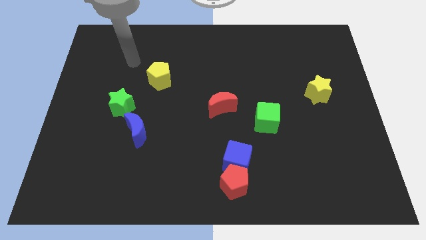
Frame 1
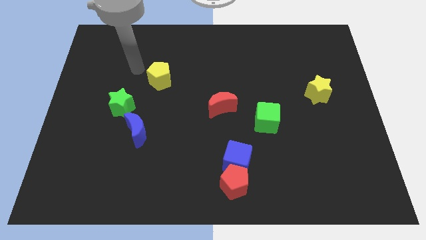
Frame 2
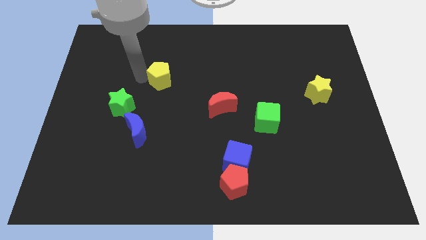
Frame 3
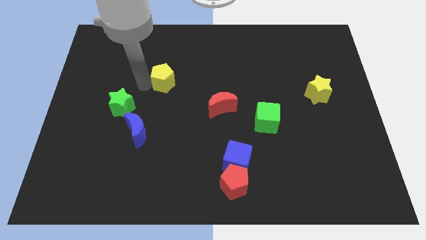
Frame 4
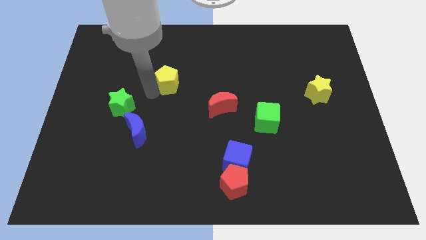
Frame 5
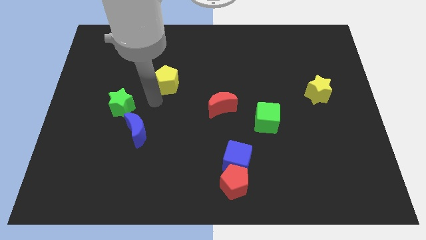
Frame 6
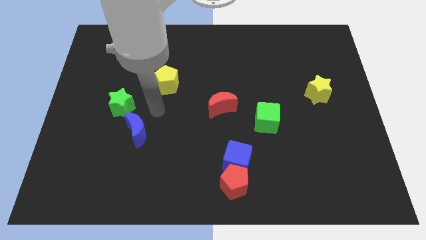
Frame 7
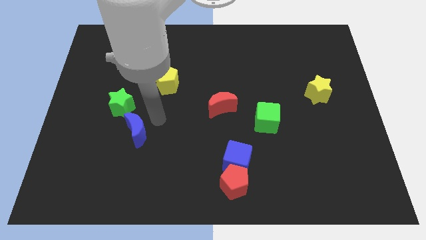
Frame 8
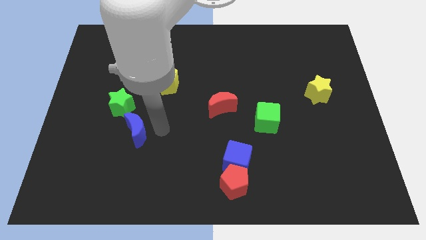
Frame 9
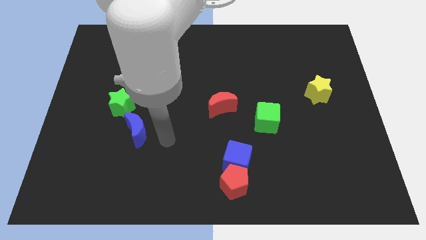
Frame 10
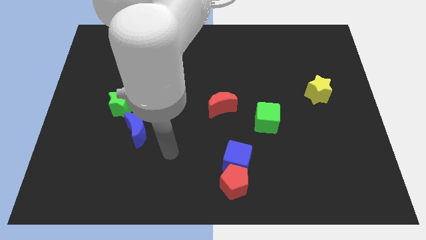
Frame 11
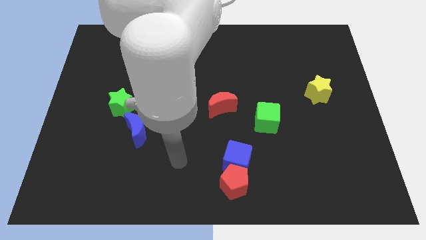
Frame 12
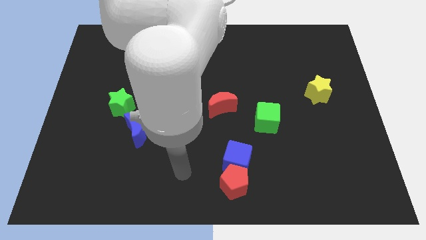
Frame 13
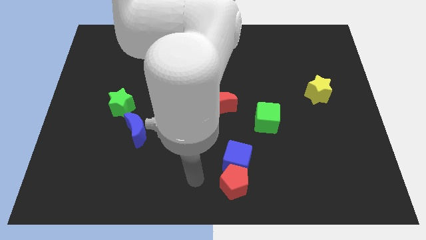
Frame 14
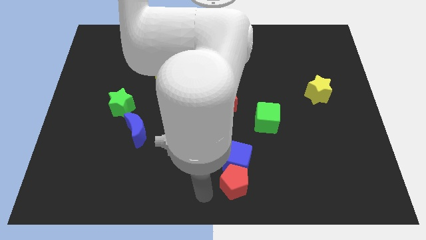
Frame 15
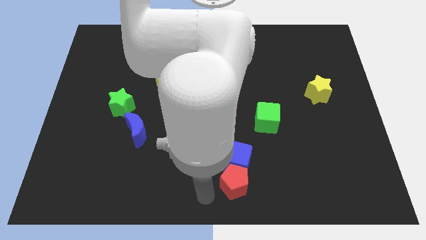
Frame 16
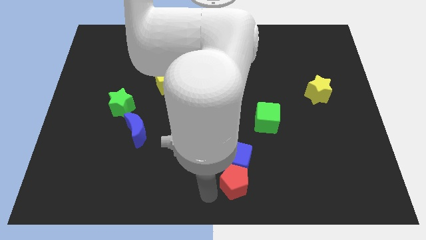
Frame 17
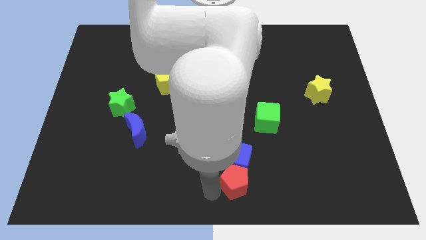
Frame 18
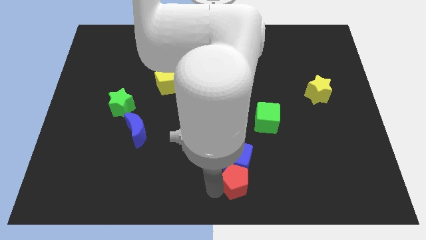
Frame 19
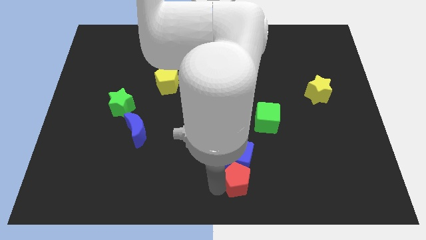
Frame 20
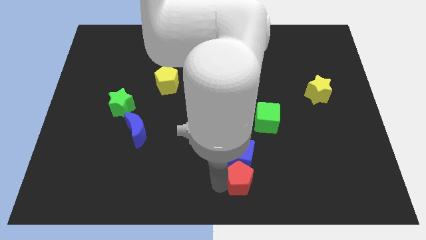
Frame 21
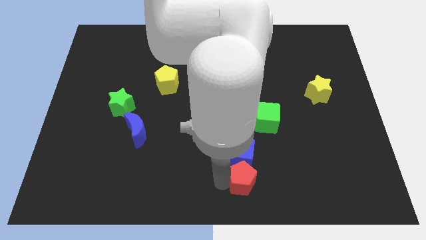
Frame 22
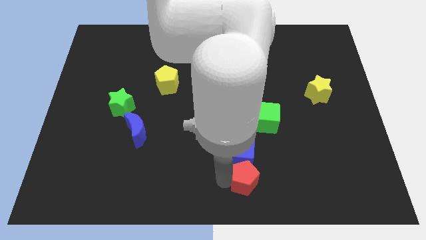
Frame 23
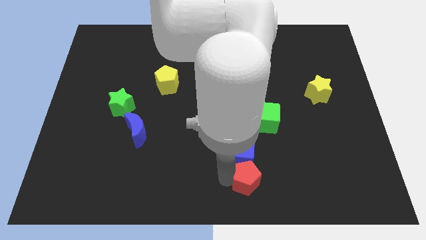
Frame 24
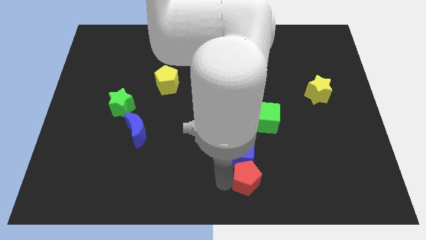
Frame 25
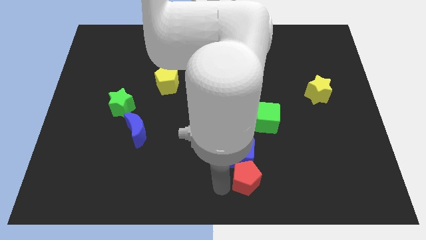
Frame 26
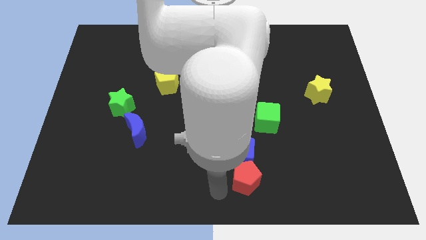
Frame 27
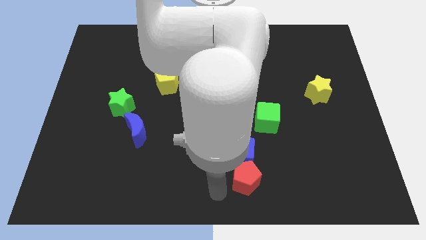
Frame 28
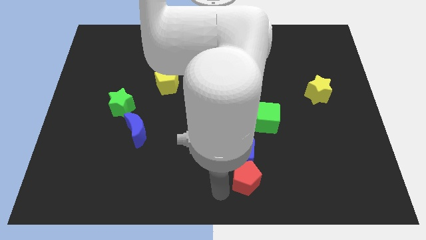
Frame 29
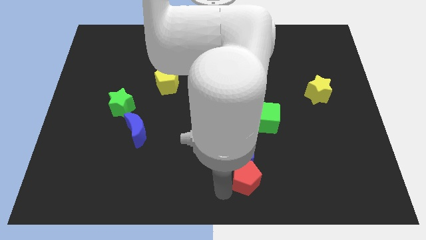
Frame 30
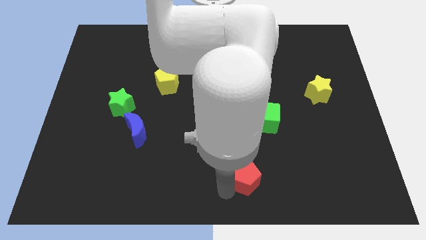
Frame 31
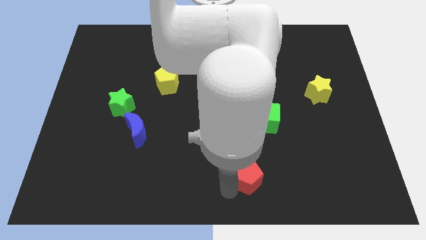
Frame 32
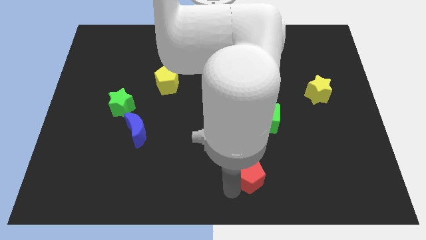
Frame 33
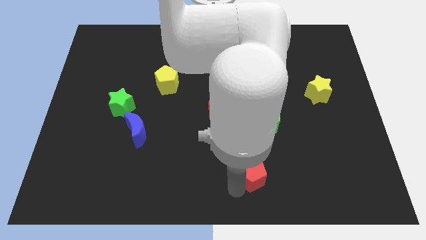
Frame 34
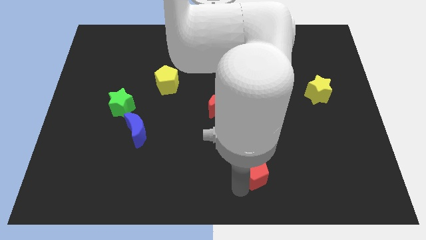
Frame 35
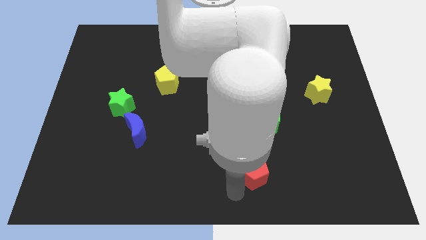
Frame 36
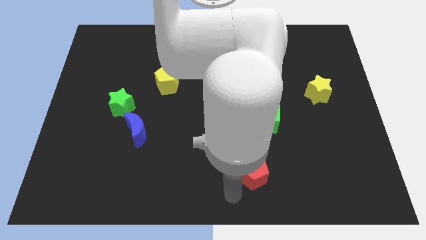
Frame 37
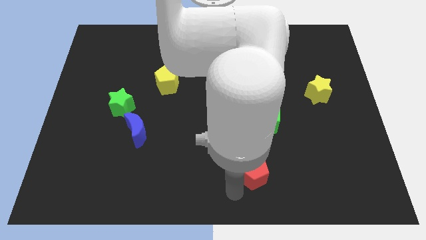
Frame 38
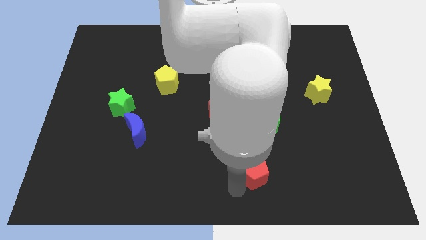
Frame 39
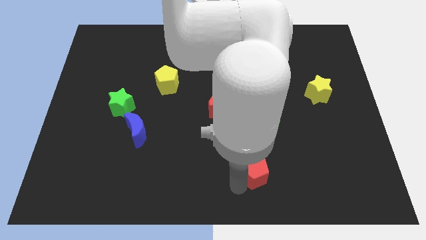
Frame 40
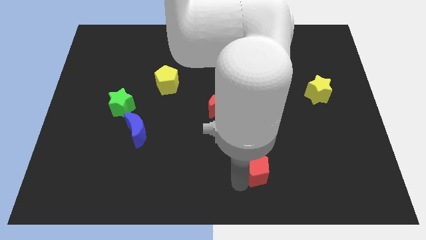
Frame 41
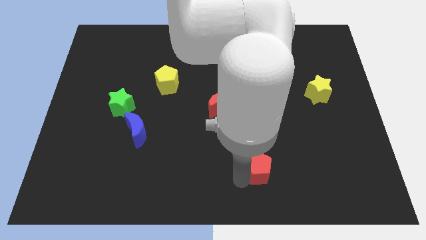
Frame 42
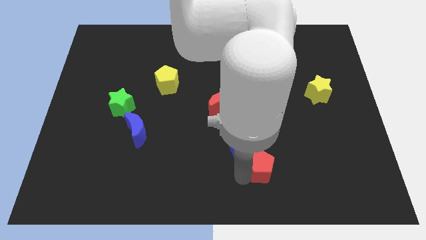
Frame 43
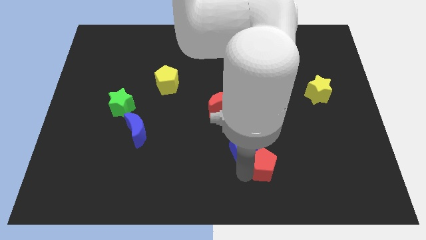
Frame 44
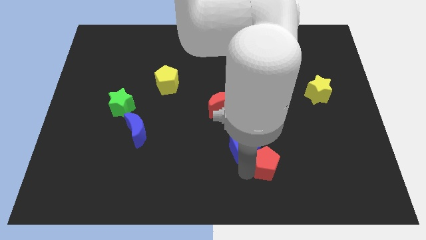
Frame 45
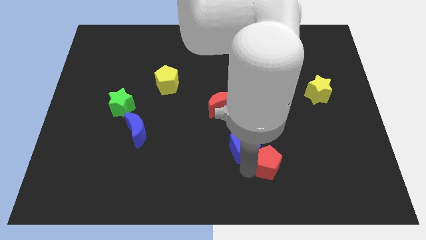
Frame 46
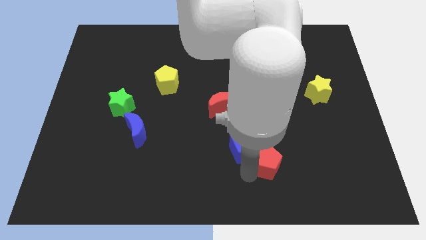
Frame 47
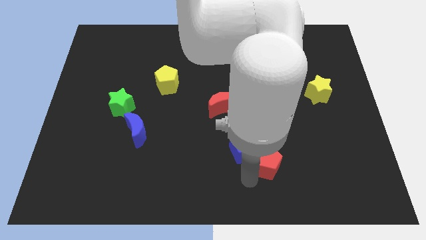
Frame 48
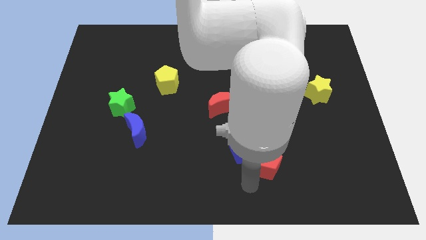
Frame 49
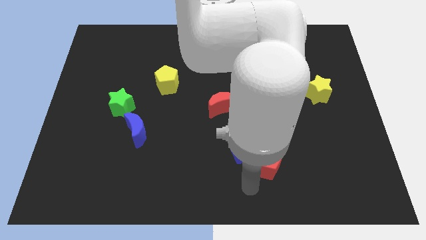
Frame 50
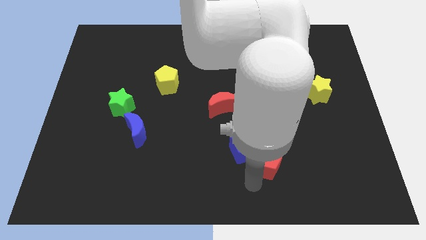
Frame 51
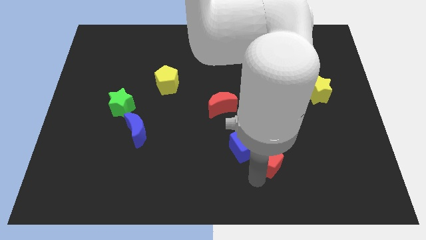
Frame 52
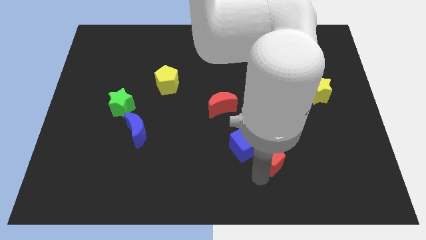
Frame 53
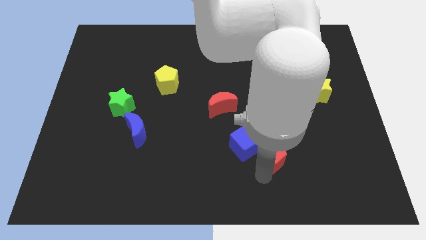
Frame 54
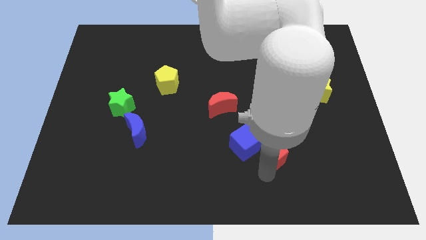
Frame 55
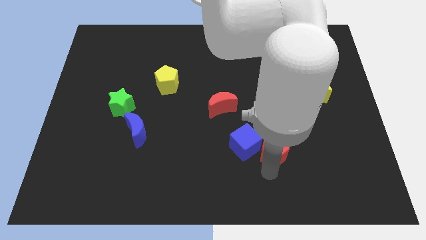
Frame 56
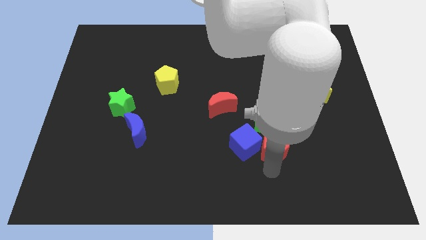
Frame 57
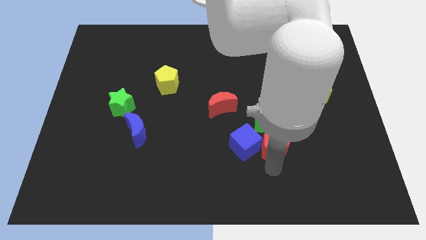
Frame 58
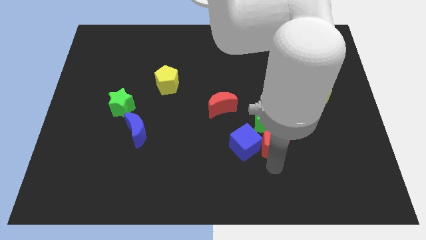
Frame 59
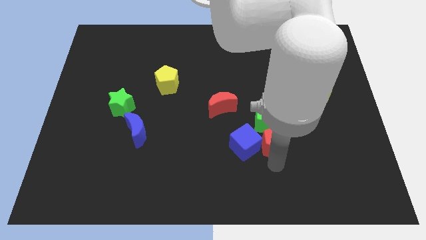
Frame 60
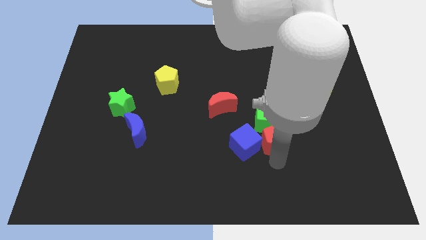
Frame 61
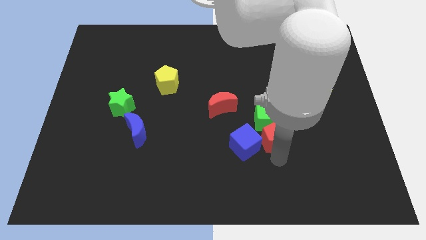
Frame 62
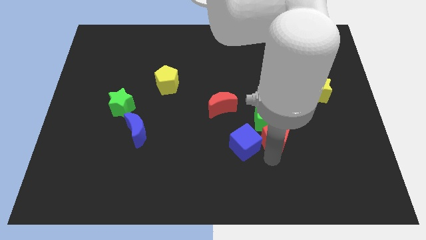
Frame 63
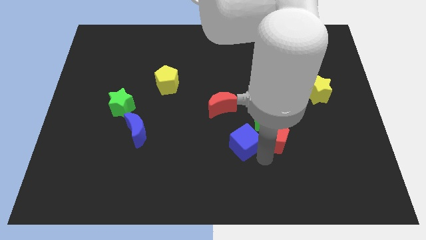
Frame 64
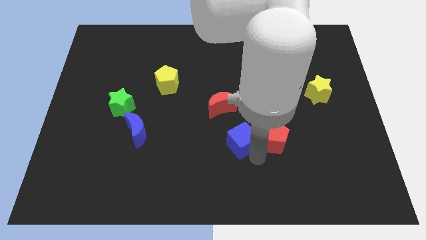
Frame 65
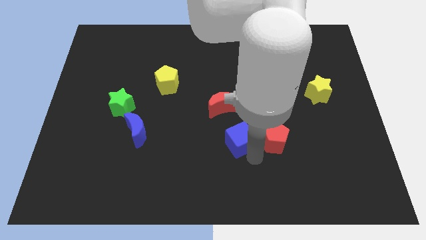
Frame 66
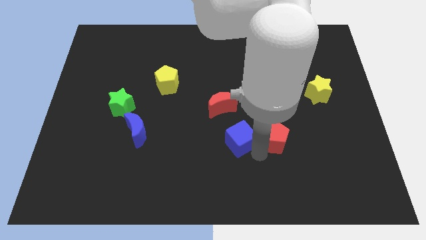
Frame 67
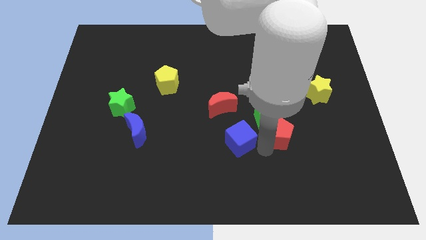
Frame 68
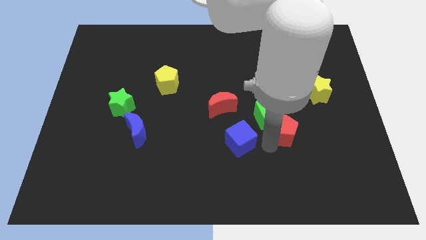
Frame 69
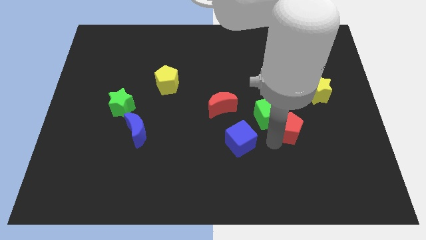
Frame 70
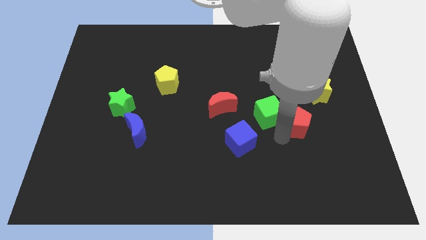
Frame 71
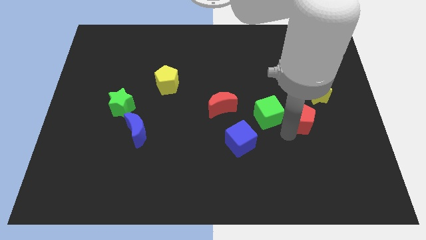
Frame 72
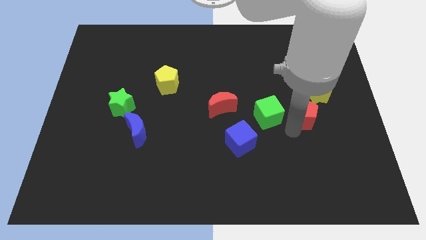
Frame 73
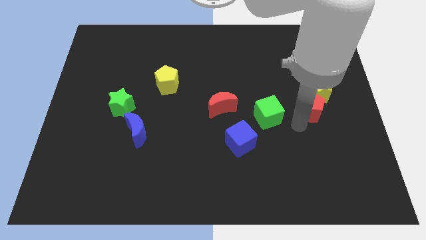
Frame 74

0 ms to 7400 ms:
slide the red pentagon close to the yellow star
